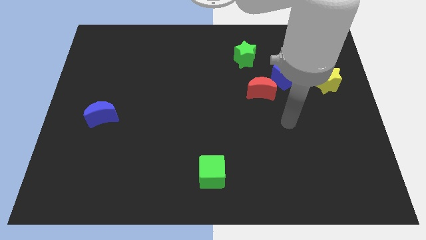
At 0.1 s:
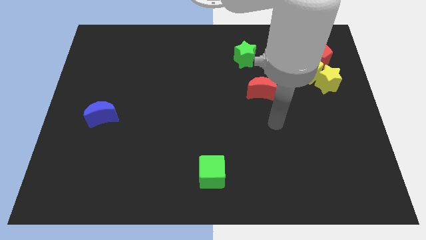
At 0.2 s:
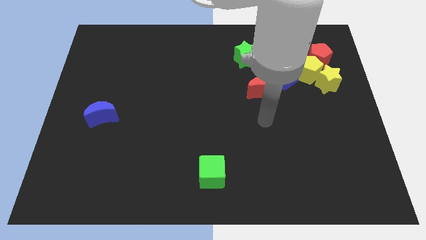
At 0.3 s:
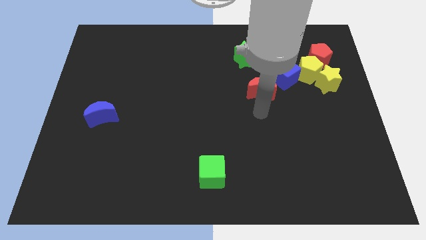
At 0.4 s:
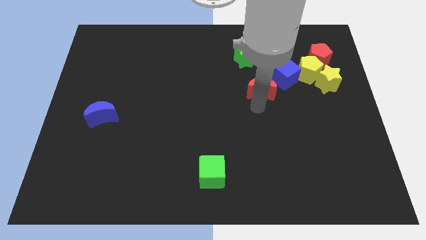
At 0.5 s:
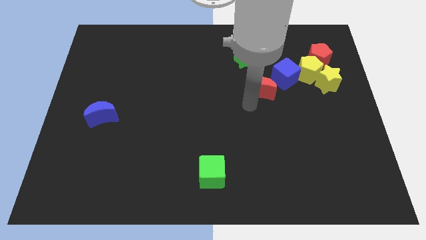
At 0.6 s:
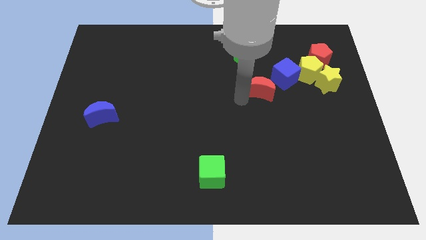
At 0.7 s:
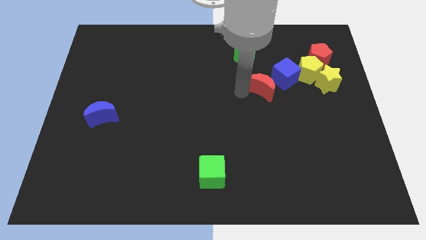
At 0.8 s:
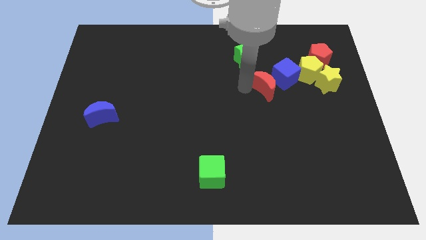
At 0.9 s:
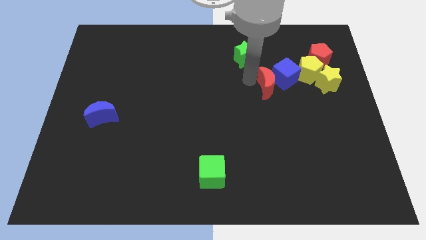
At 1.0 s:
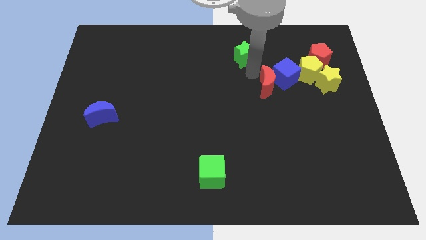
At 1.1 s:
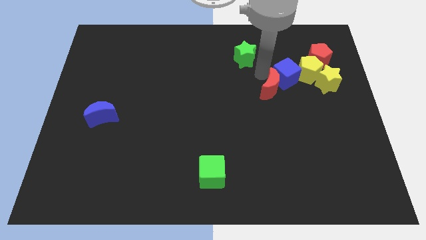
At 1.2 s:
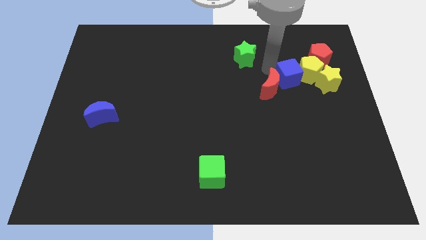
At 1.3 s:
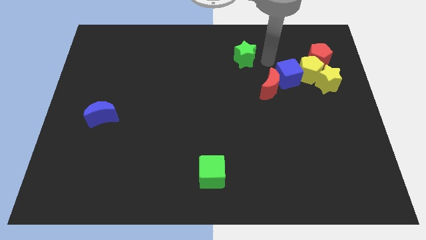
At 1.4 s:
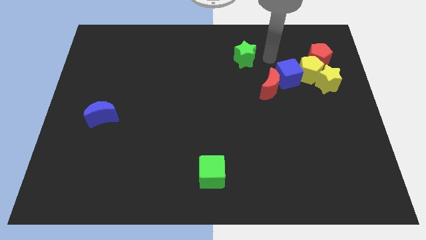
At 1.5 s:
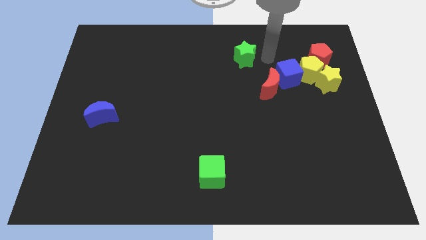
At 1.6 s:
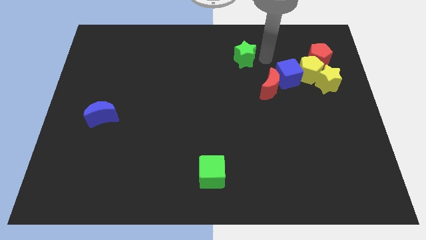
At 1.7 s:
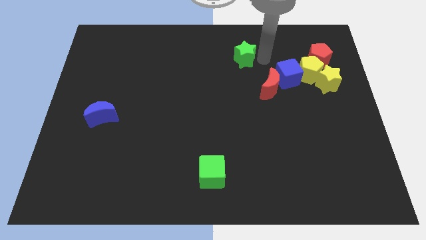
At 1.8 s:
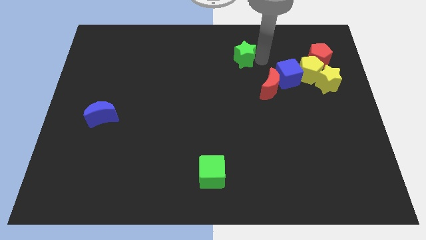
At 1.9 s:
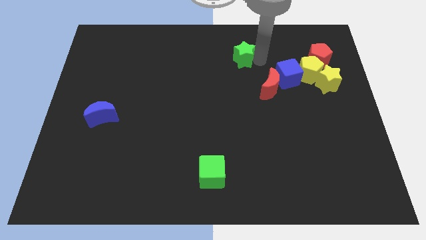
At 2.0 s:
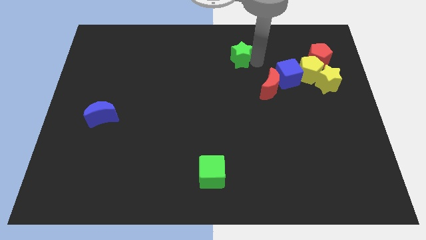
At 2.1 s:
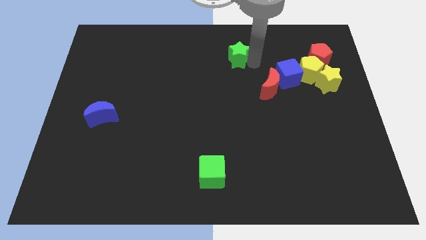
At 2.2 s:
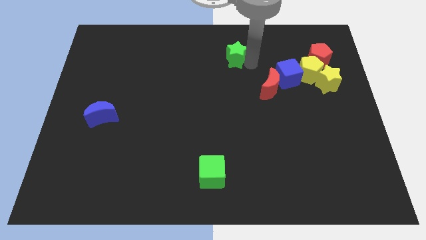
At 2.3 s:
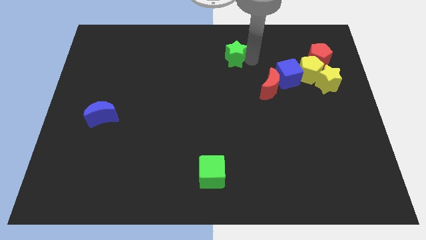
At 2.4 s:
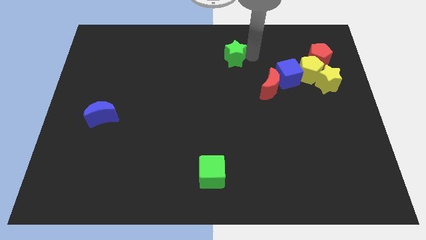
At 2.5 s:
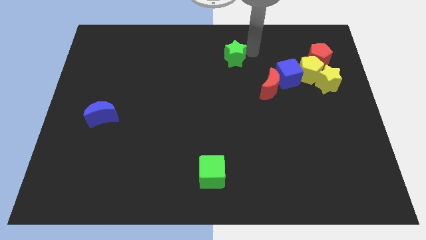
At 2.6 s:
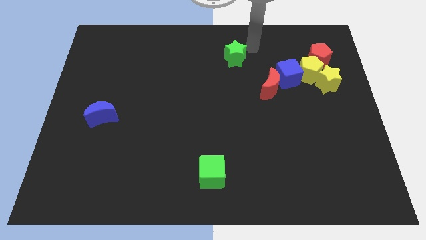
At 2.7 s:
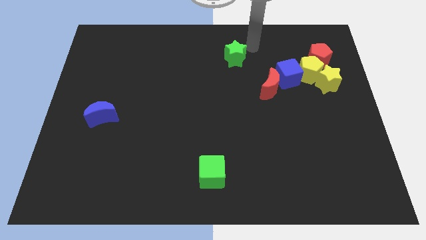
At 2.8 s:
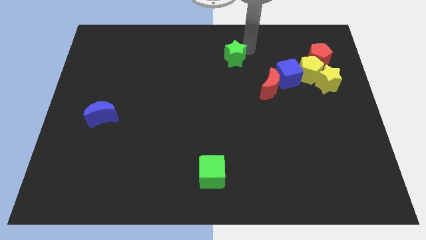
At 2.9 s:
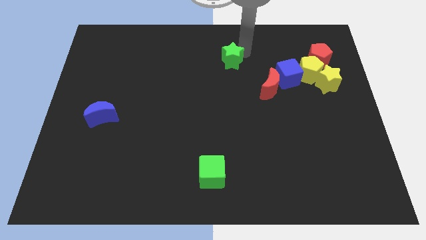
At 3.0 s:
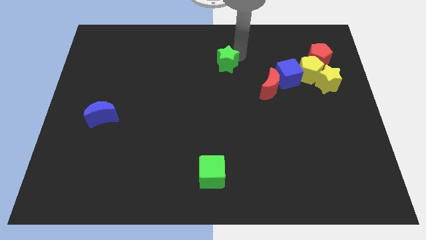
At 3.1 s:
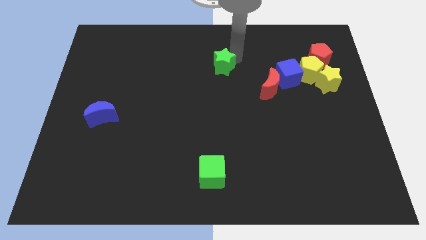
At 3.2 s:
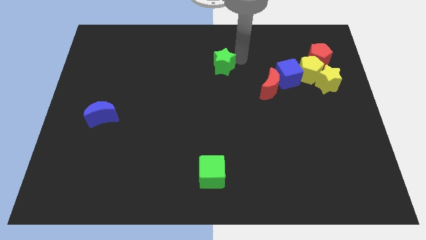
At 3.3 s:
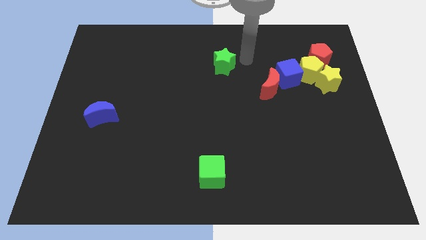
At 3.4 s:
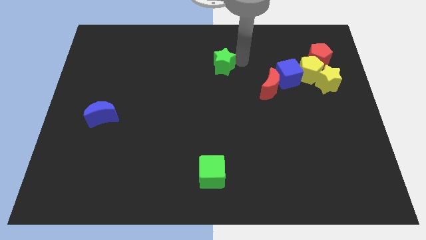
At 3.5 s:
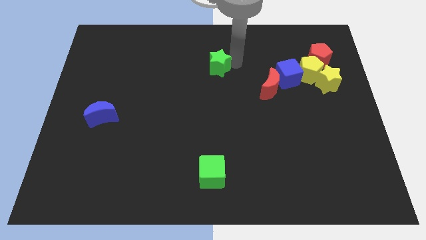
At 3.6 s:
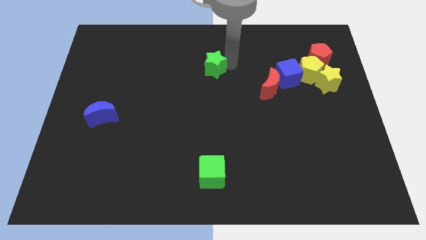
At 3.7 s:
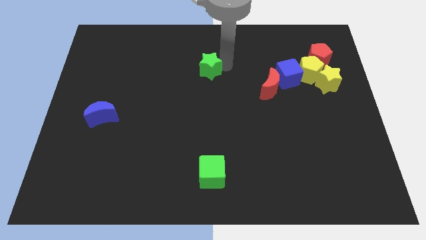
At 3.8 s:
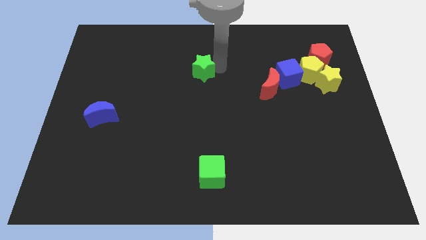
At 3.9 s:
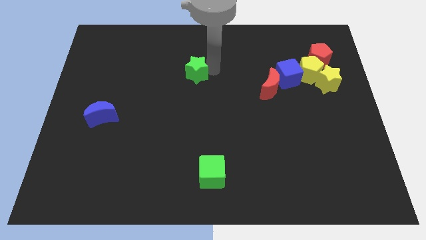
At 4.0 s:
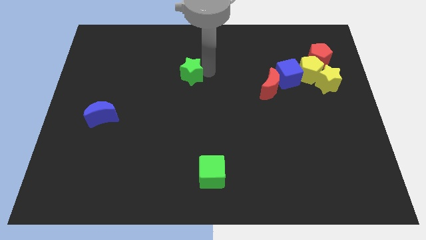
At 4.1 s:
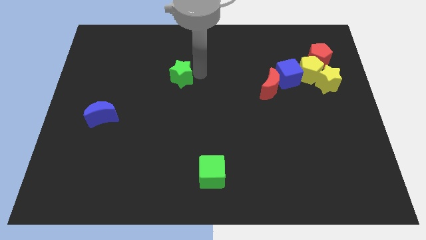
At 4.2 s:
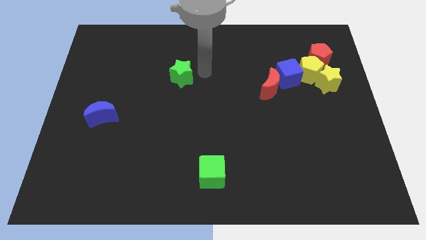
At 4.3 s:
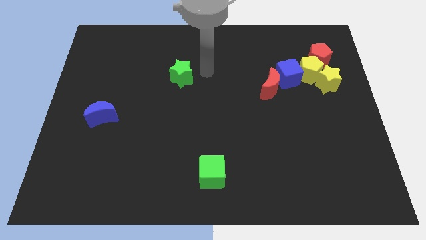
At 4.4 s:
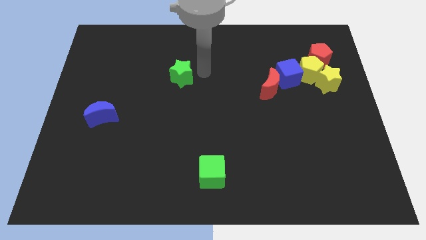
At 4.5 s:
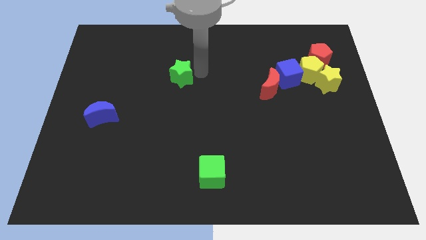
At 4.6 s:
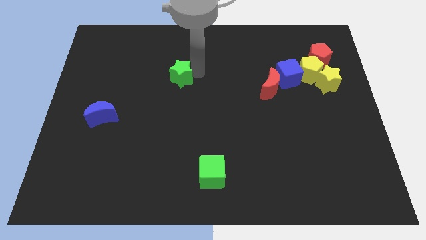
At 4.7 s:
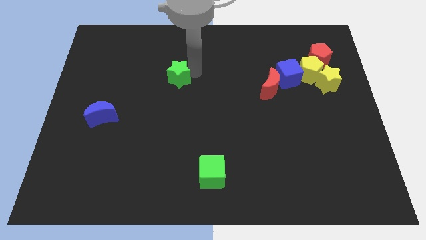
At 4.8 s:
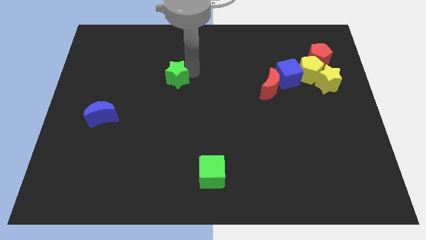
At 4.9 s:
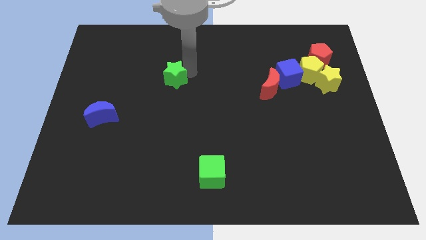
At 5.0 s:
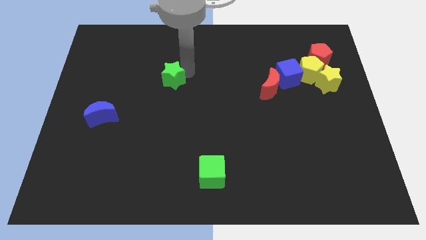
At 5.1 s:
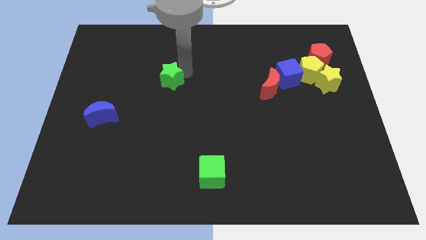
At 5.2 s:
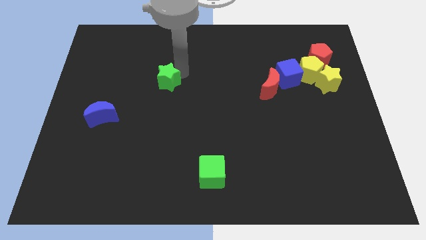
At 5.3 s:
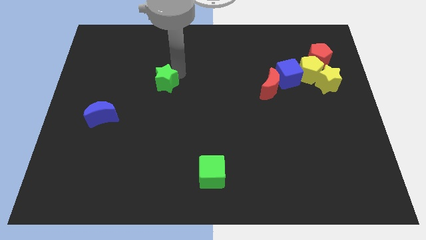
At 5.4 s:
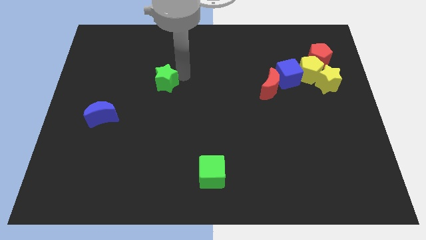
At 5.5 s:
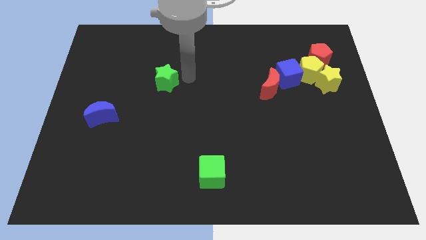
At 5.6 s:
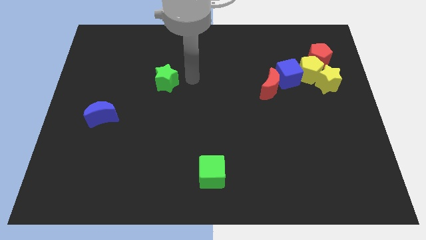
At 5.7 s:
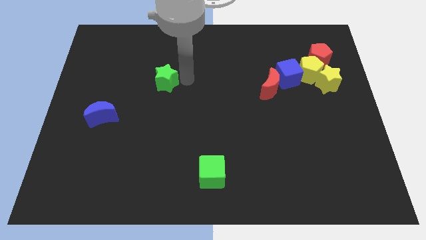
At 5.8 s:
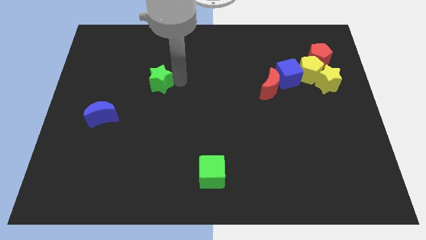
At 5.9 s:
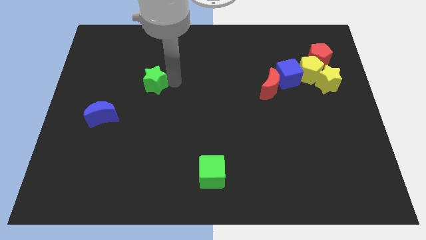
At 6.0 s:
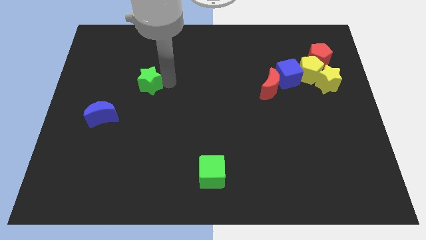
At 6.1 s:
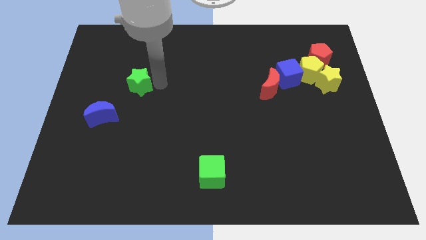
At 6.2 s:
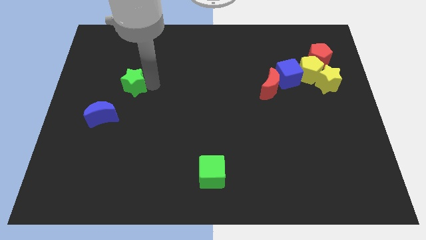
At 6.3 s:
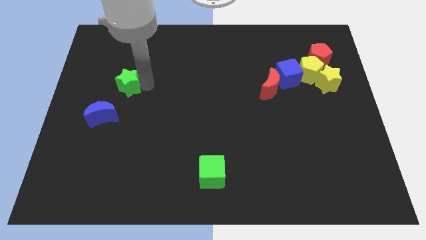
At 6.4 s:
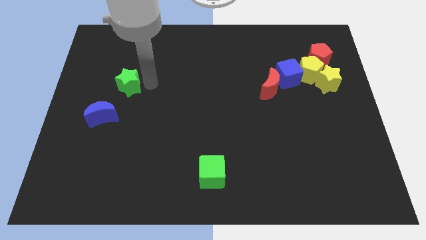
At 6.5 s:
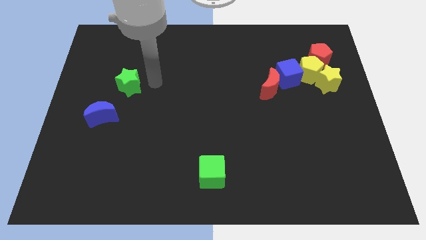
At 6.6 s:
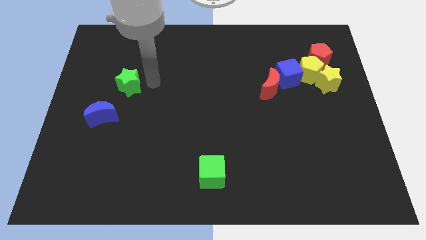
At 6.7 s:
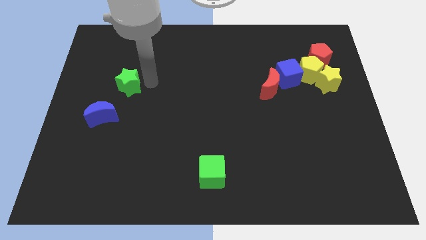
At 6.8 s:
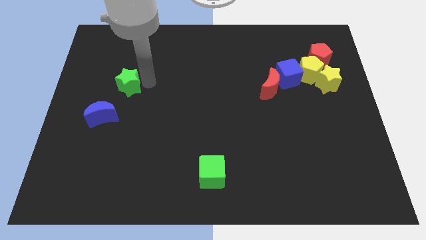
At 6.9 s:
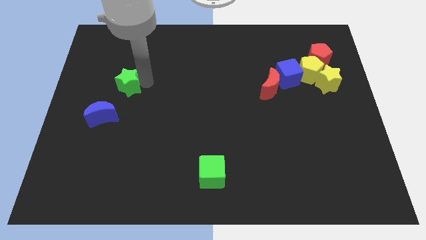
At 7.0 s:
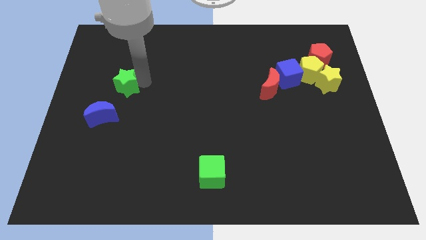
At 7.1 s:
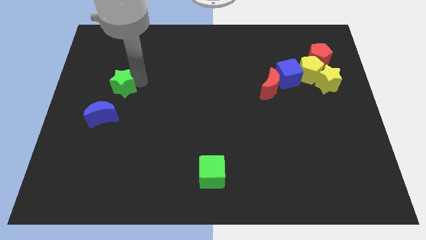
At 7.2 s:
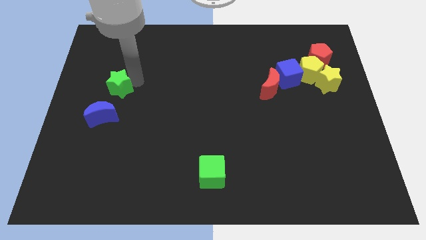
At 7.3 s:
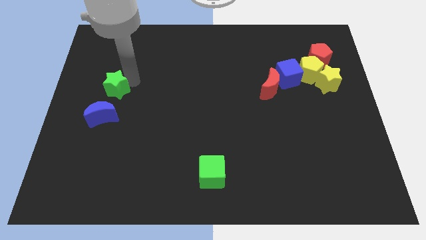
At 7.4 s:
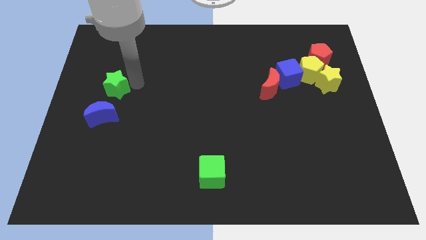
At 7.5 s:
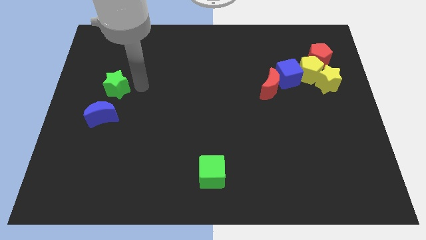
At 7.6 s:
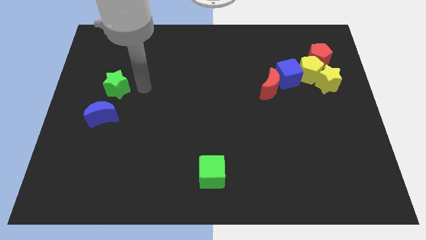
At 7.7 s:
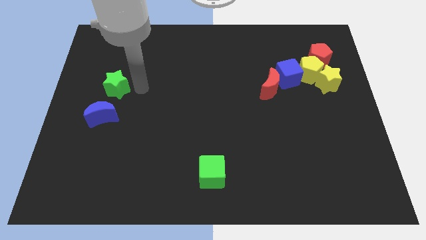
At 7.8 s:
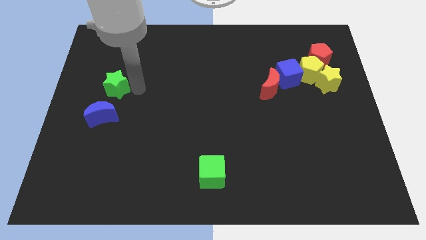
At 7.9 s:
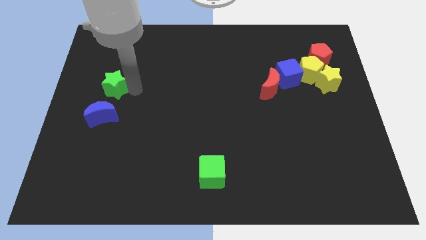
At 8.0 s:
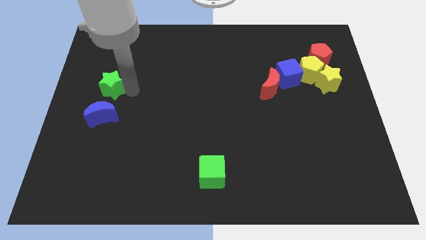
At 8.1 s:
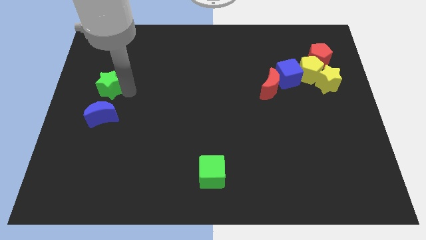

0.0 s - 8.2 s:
move the green star to the center left
